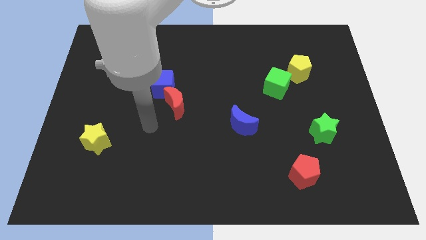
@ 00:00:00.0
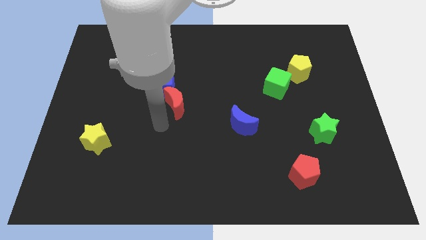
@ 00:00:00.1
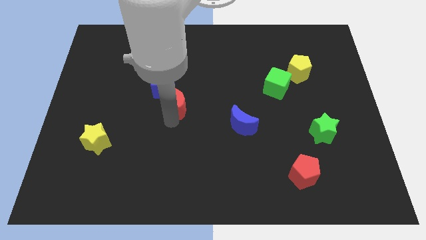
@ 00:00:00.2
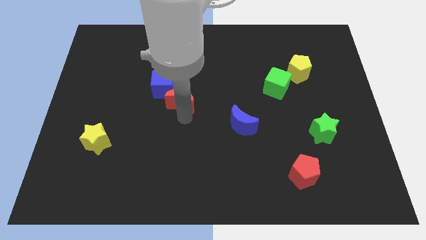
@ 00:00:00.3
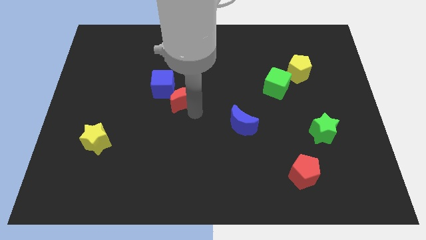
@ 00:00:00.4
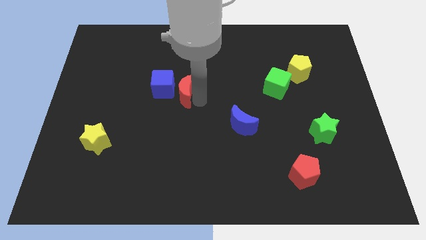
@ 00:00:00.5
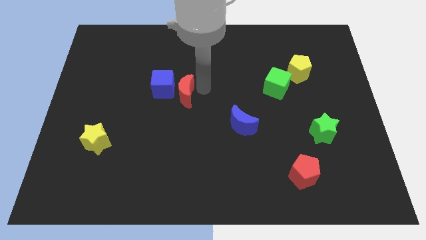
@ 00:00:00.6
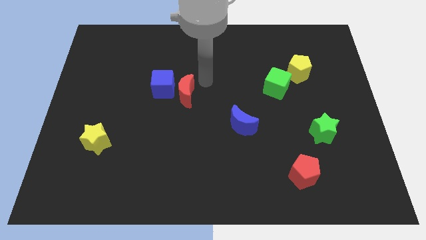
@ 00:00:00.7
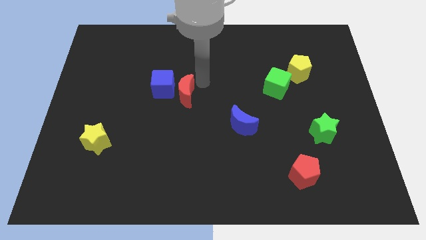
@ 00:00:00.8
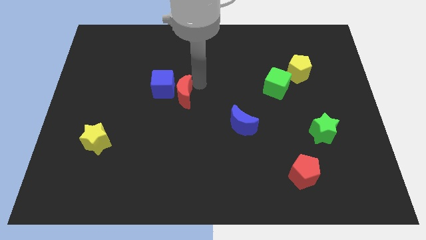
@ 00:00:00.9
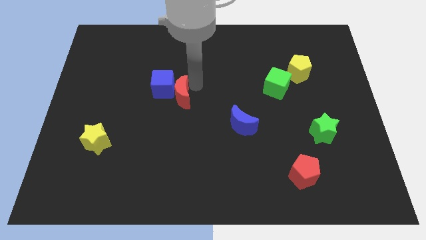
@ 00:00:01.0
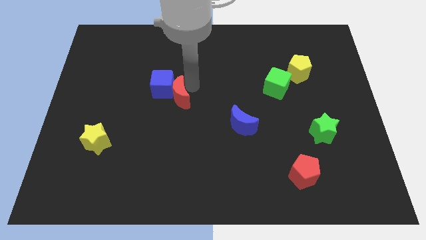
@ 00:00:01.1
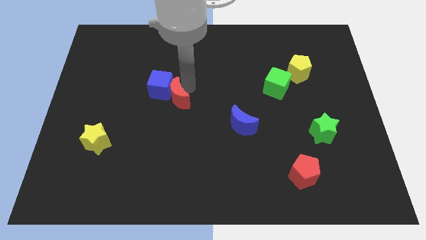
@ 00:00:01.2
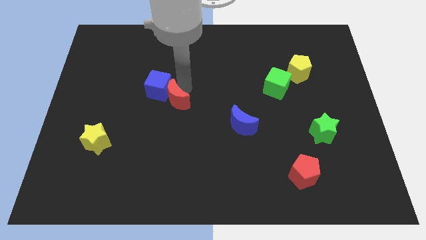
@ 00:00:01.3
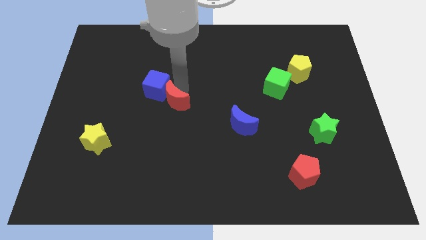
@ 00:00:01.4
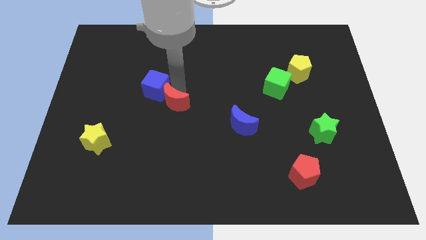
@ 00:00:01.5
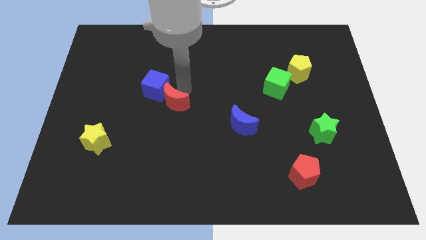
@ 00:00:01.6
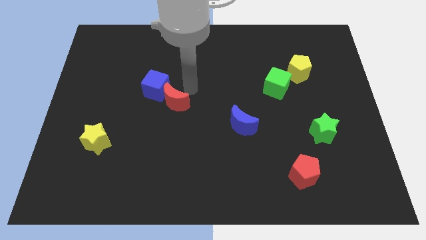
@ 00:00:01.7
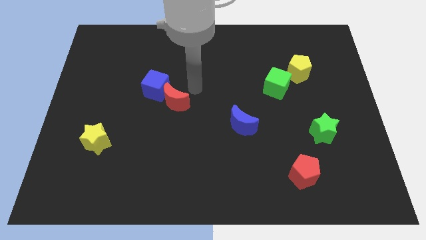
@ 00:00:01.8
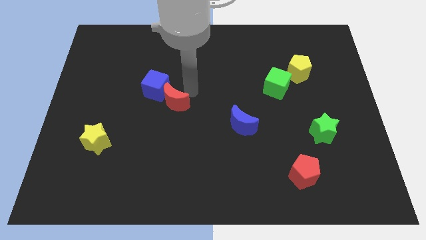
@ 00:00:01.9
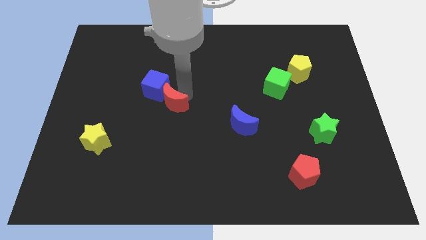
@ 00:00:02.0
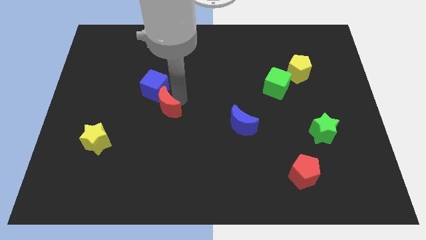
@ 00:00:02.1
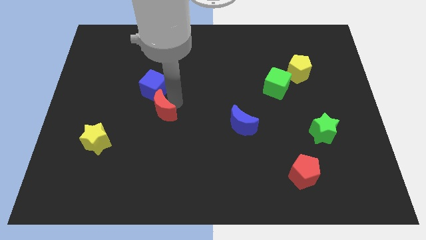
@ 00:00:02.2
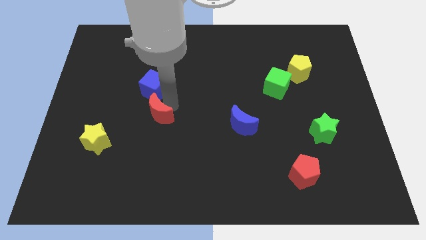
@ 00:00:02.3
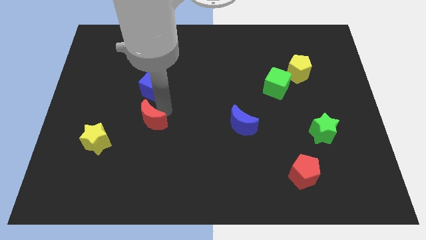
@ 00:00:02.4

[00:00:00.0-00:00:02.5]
push the red moon down and to the left diagonally a little

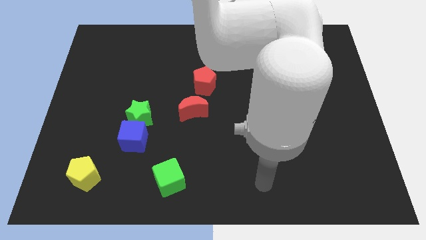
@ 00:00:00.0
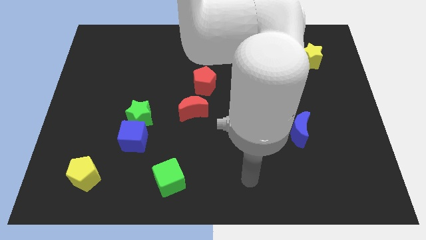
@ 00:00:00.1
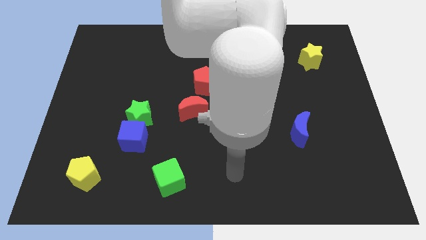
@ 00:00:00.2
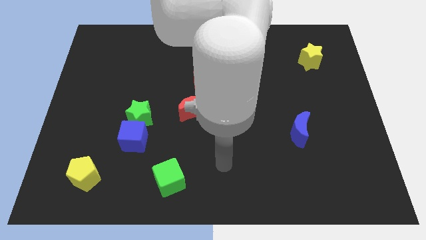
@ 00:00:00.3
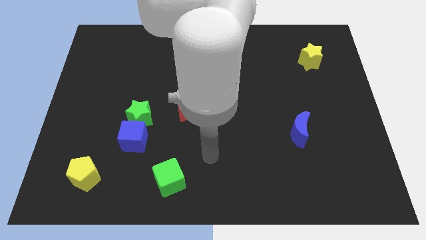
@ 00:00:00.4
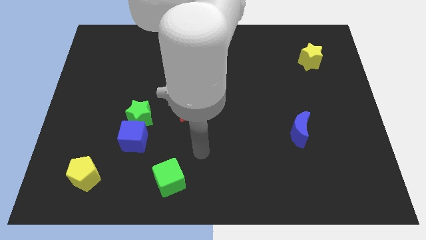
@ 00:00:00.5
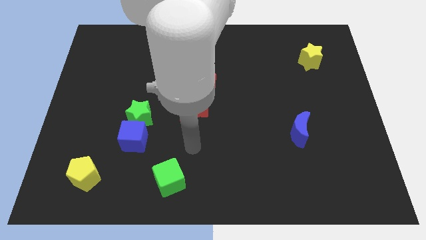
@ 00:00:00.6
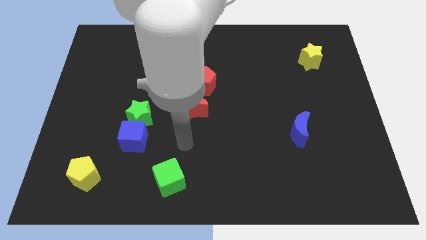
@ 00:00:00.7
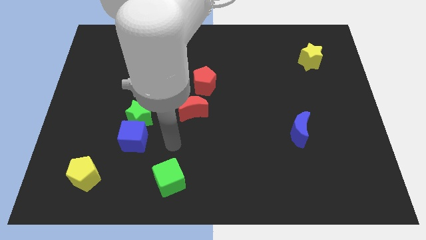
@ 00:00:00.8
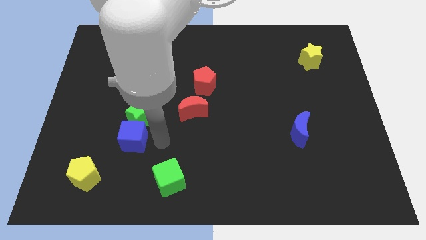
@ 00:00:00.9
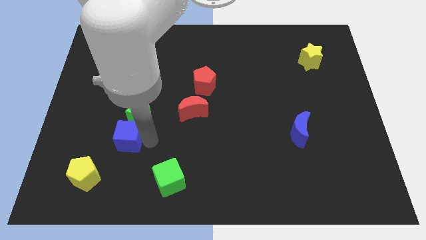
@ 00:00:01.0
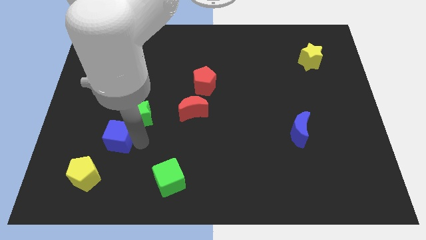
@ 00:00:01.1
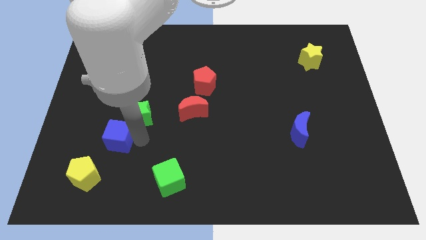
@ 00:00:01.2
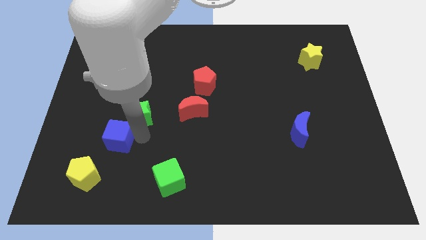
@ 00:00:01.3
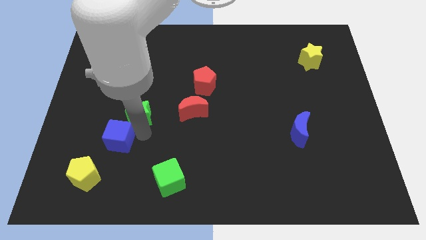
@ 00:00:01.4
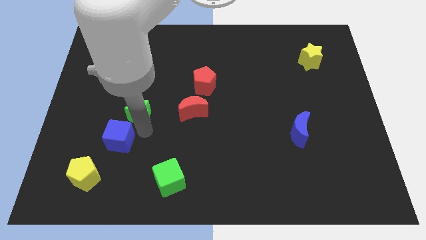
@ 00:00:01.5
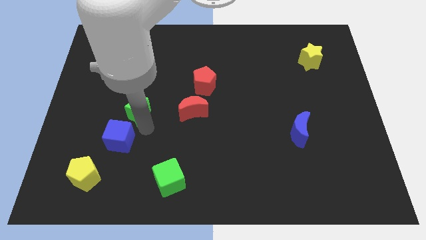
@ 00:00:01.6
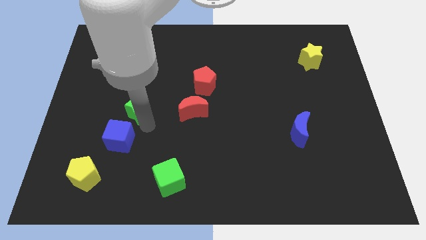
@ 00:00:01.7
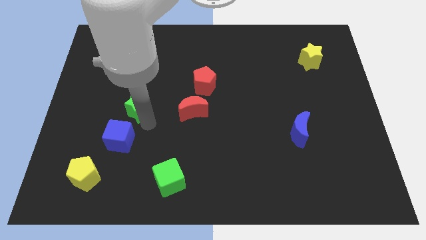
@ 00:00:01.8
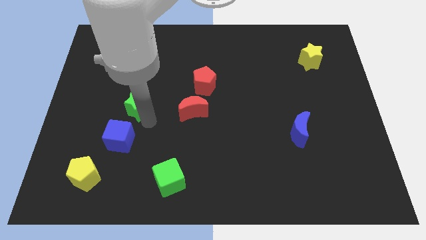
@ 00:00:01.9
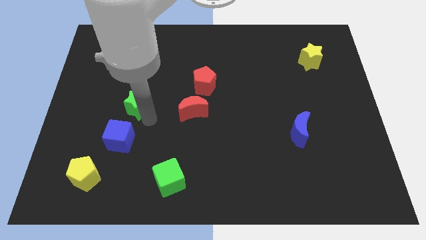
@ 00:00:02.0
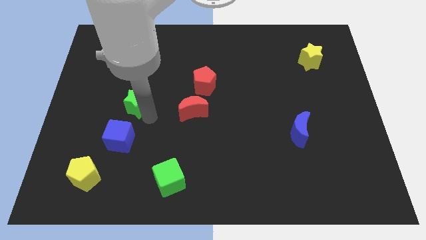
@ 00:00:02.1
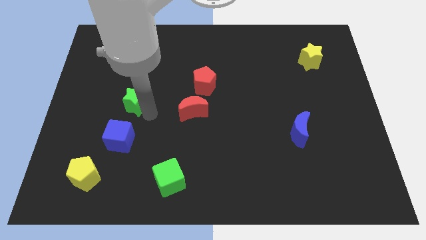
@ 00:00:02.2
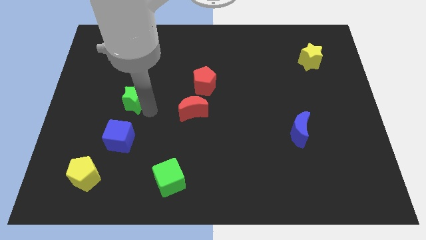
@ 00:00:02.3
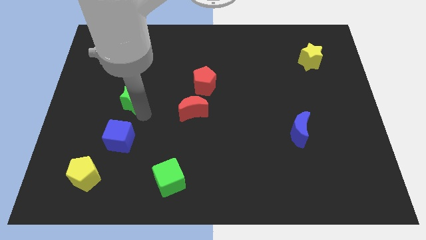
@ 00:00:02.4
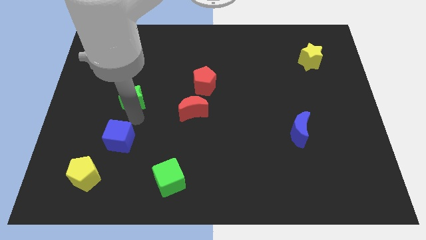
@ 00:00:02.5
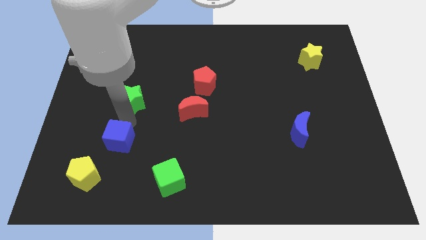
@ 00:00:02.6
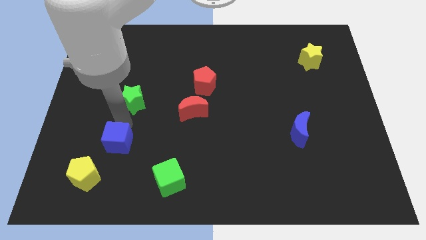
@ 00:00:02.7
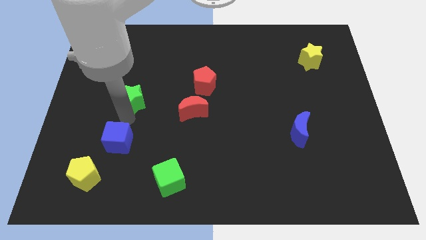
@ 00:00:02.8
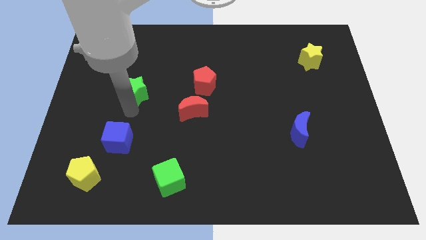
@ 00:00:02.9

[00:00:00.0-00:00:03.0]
push the green star somewhat up

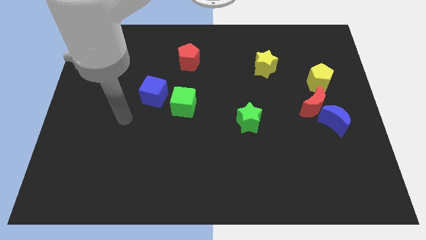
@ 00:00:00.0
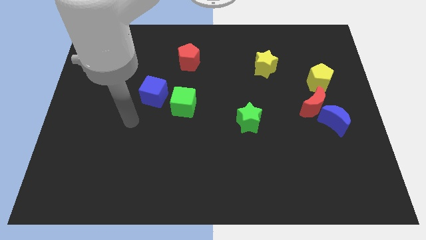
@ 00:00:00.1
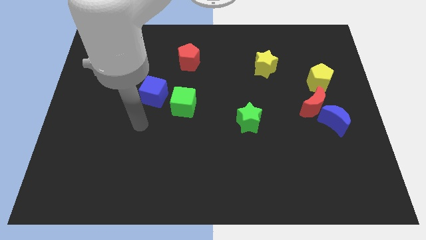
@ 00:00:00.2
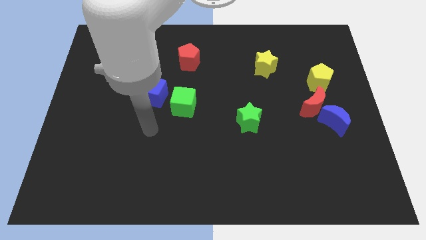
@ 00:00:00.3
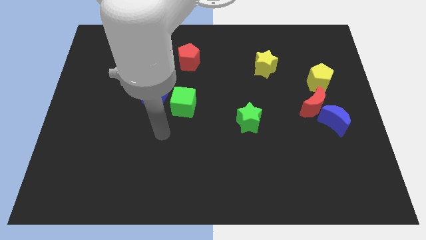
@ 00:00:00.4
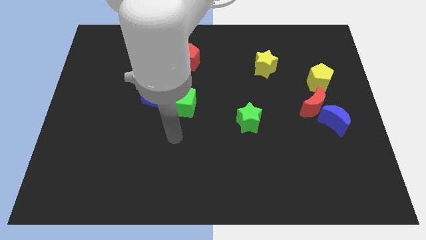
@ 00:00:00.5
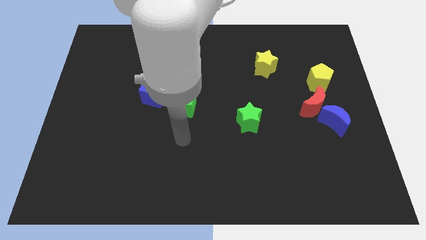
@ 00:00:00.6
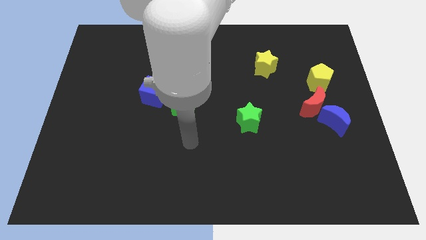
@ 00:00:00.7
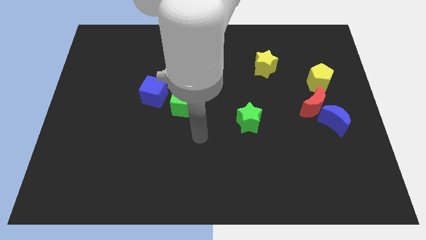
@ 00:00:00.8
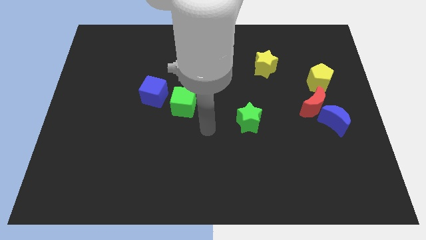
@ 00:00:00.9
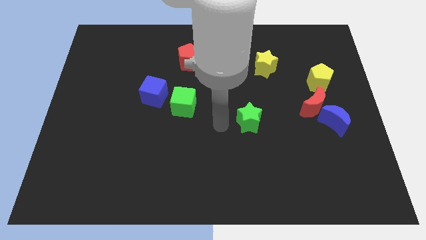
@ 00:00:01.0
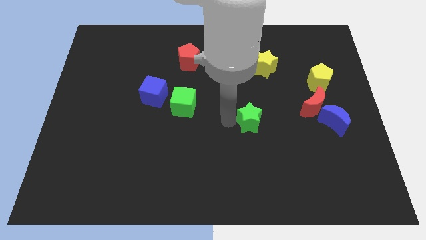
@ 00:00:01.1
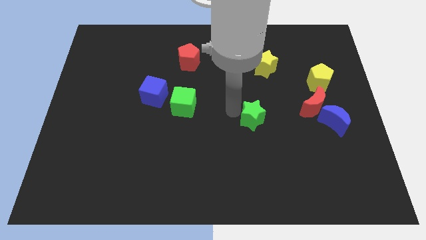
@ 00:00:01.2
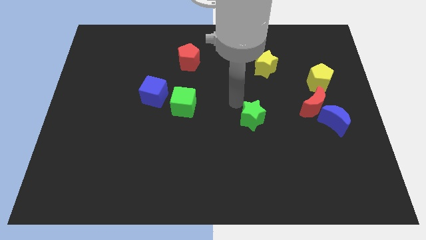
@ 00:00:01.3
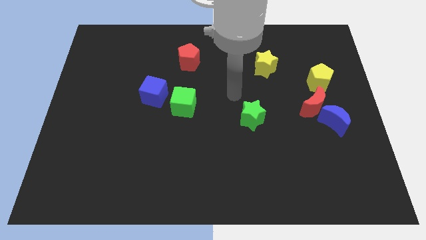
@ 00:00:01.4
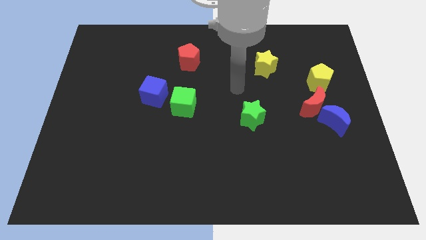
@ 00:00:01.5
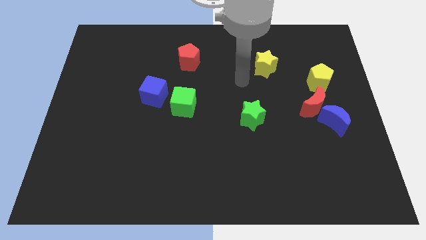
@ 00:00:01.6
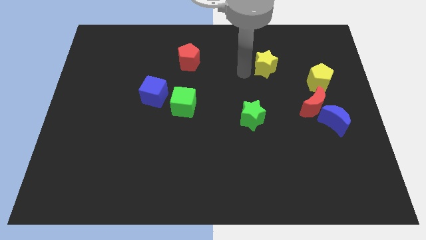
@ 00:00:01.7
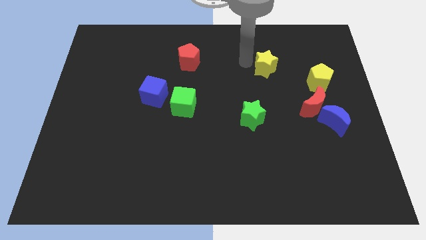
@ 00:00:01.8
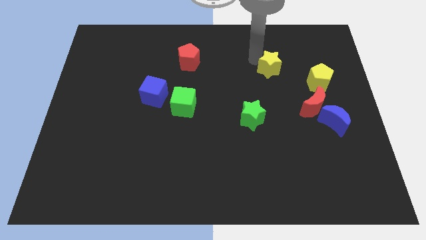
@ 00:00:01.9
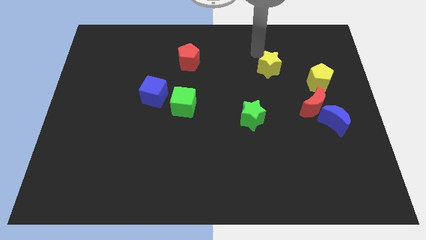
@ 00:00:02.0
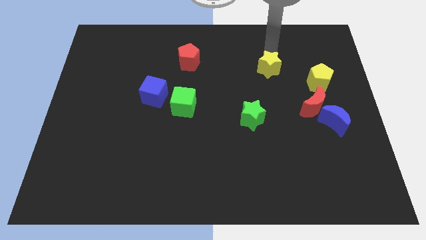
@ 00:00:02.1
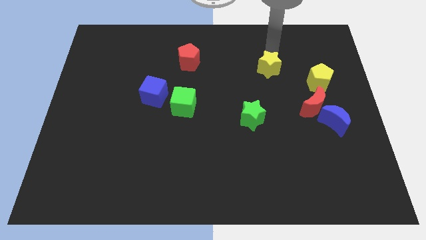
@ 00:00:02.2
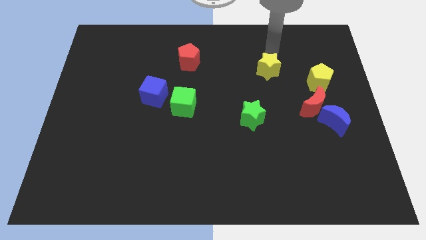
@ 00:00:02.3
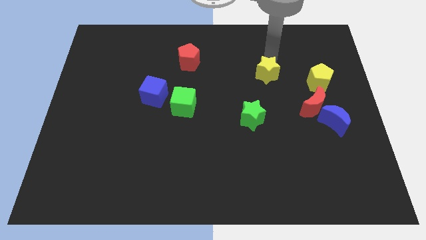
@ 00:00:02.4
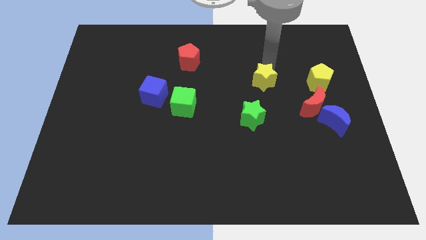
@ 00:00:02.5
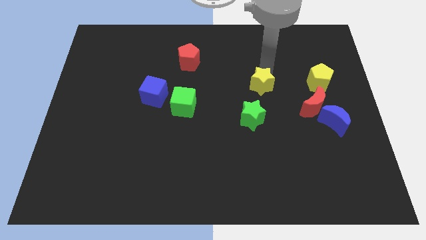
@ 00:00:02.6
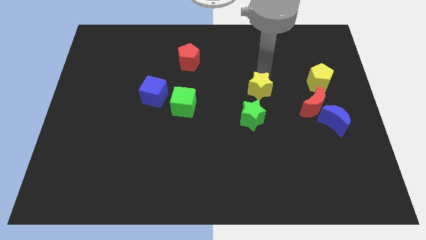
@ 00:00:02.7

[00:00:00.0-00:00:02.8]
slightly push the yellow star downwards

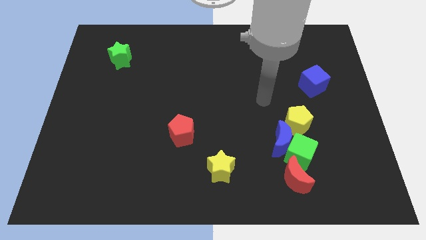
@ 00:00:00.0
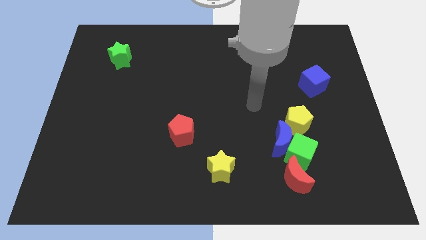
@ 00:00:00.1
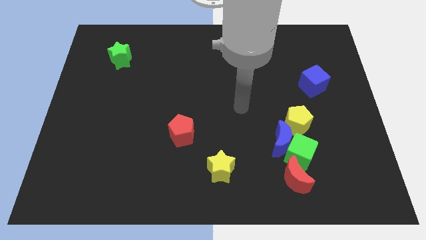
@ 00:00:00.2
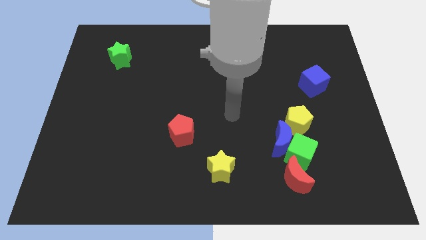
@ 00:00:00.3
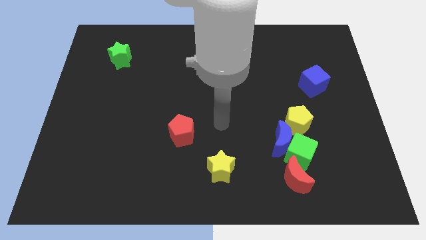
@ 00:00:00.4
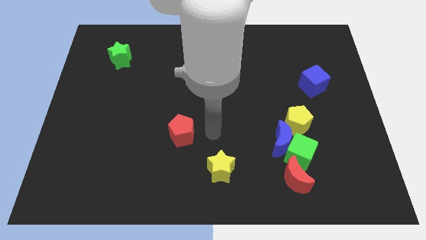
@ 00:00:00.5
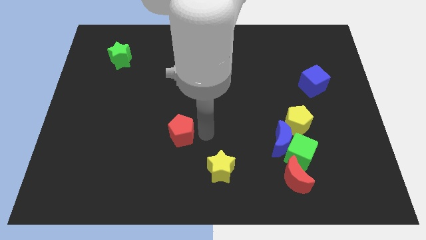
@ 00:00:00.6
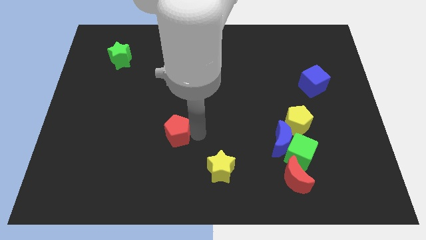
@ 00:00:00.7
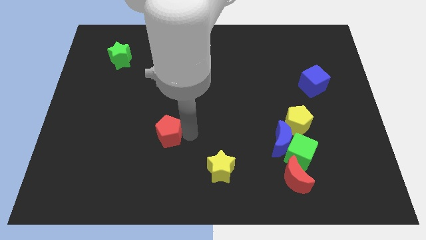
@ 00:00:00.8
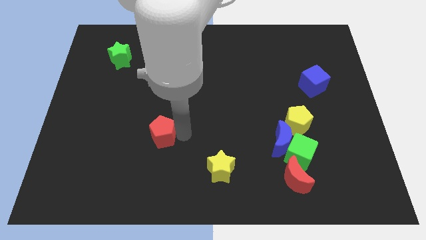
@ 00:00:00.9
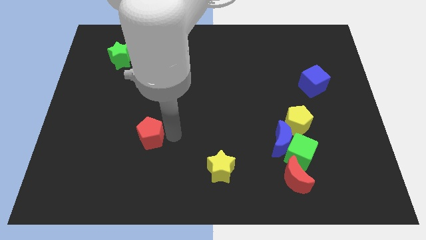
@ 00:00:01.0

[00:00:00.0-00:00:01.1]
push the red pentagon somewhat left
